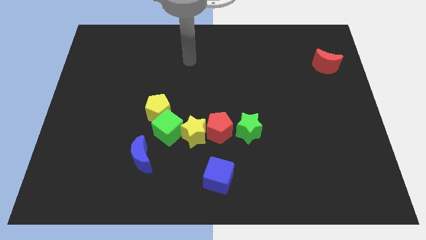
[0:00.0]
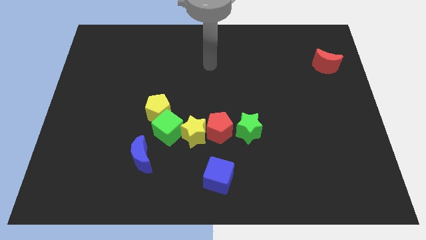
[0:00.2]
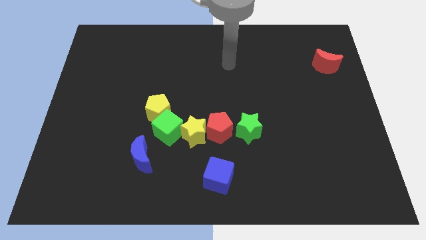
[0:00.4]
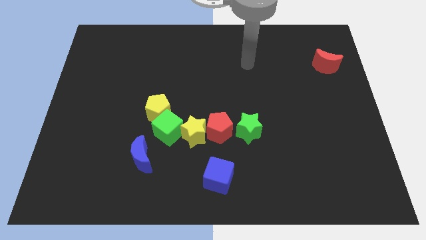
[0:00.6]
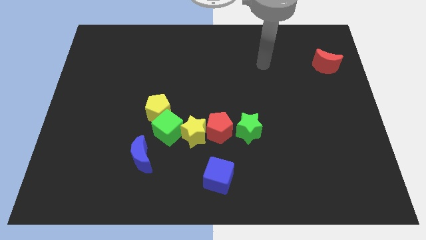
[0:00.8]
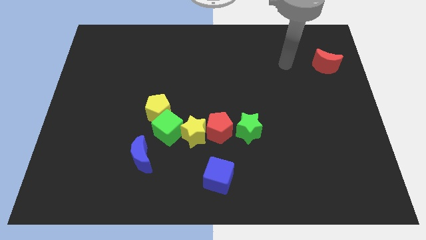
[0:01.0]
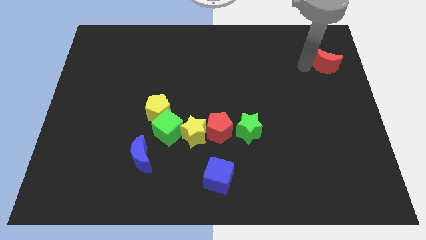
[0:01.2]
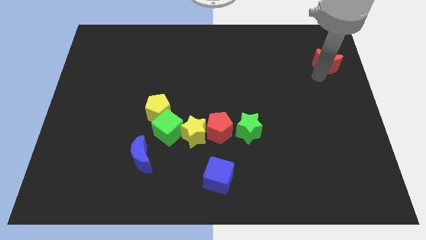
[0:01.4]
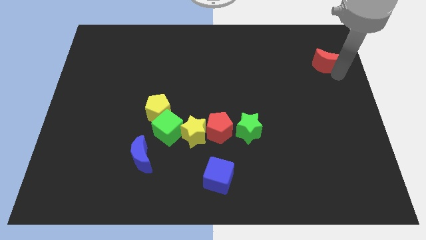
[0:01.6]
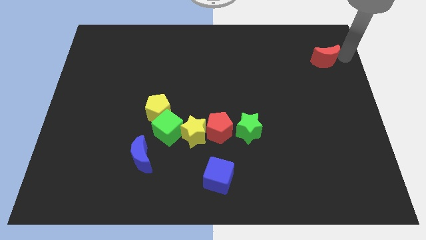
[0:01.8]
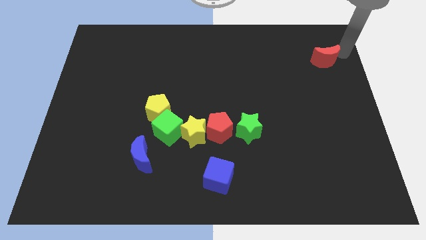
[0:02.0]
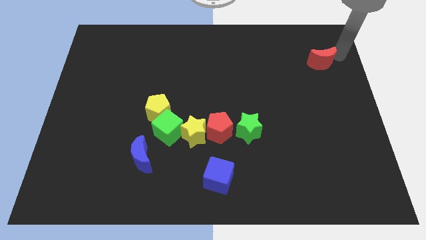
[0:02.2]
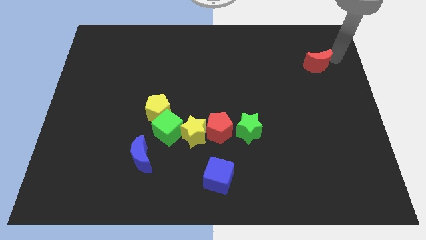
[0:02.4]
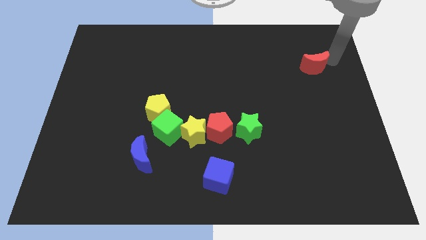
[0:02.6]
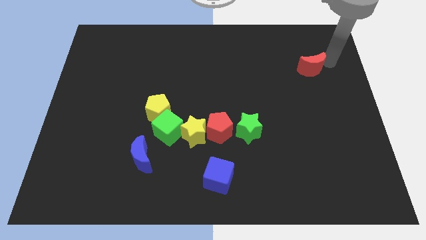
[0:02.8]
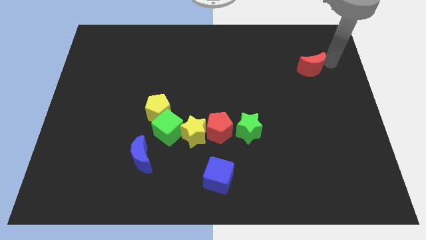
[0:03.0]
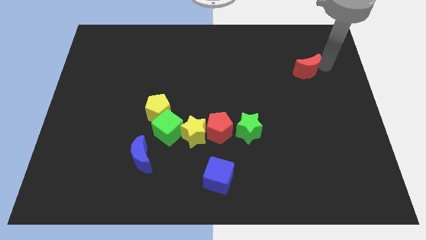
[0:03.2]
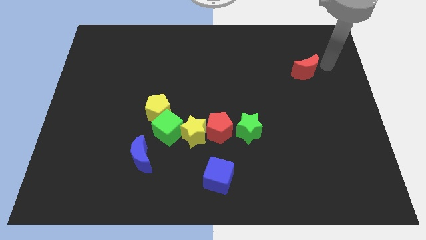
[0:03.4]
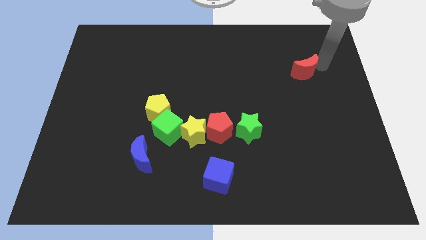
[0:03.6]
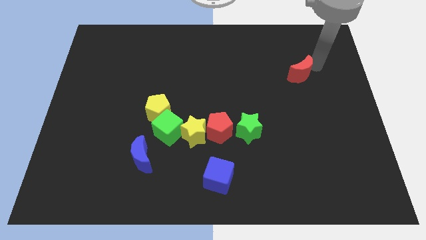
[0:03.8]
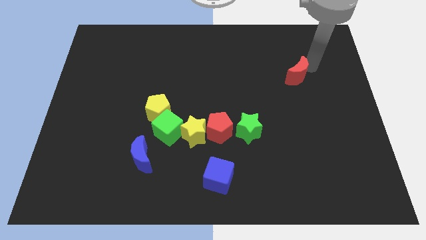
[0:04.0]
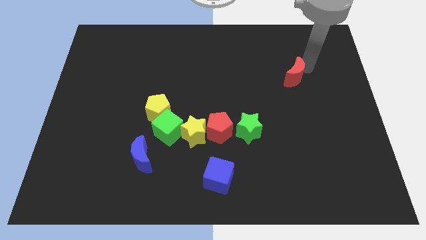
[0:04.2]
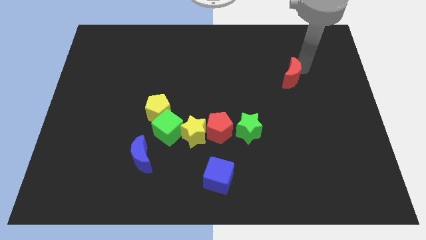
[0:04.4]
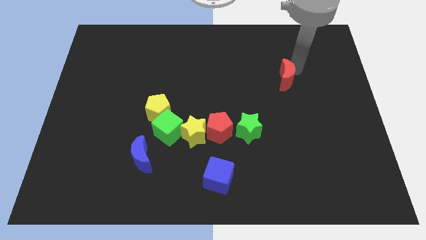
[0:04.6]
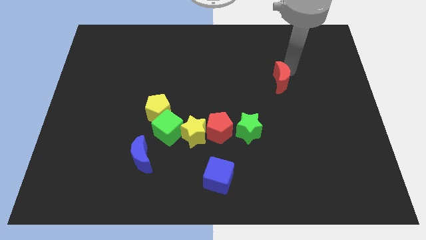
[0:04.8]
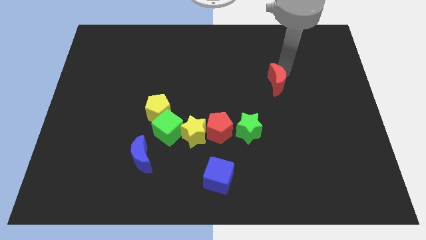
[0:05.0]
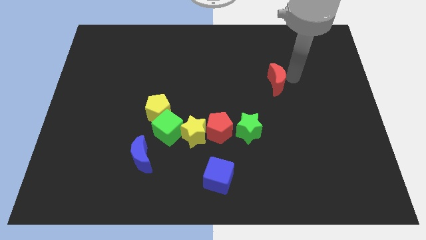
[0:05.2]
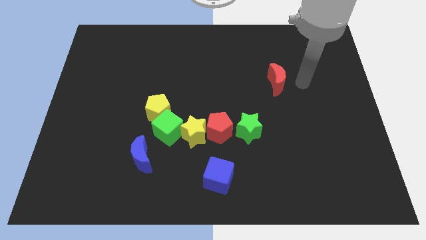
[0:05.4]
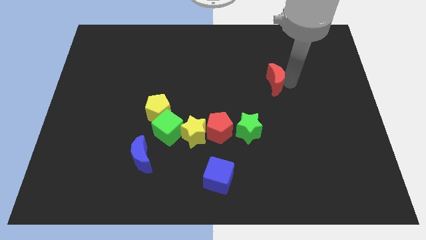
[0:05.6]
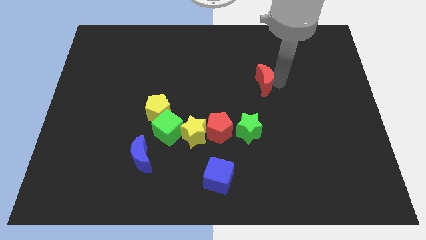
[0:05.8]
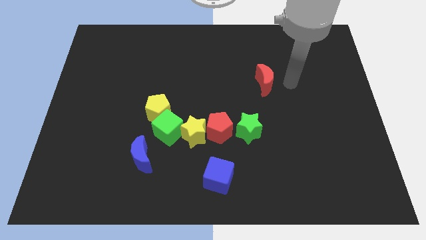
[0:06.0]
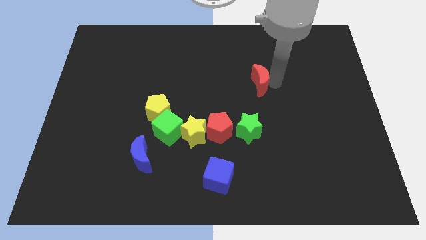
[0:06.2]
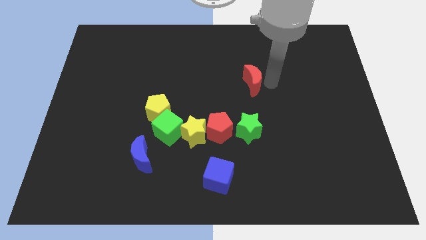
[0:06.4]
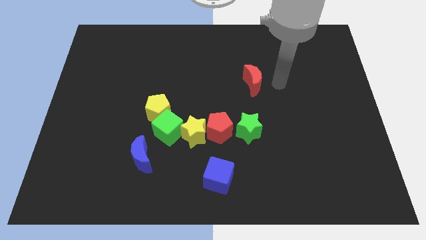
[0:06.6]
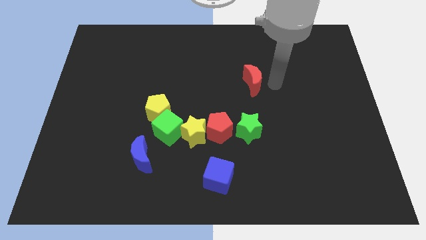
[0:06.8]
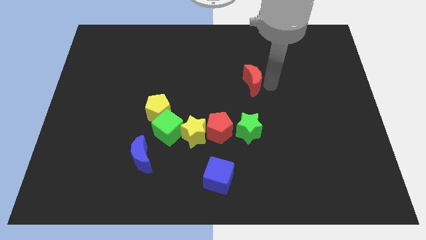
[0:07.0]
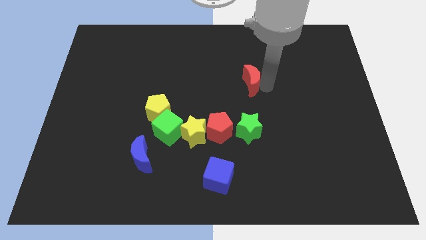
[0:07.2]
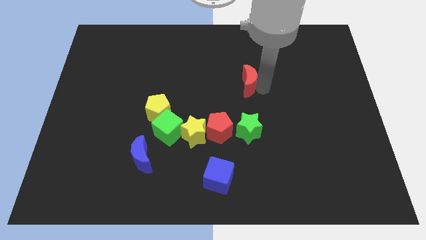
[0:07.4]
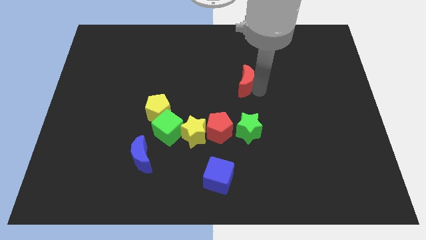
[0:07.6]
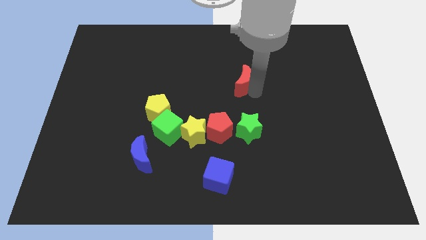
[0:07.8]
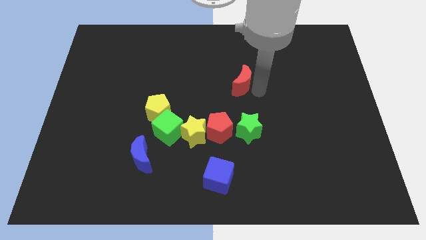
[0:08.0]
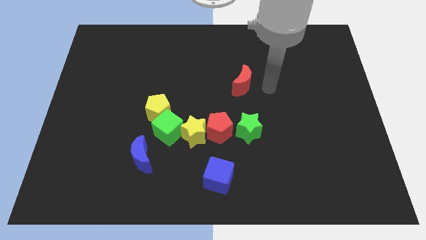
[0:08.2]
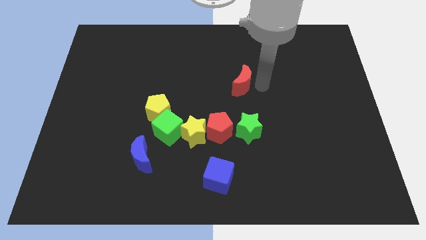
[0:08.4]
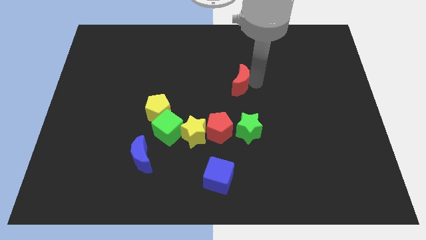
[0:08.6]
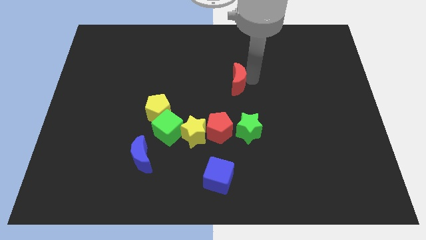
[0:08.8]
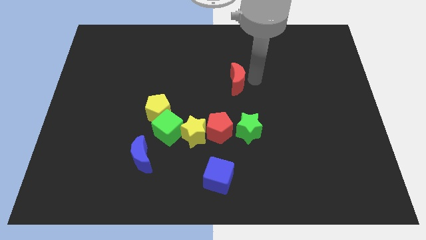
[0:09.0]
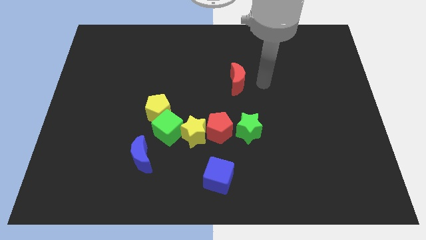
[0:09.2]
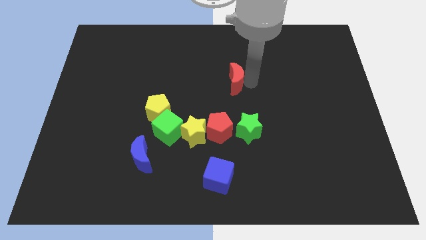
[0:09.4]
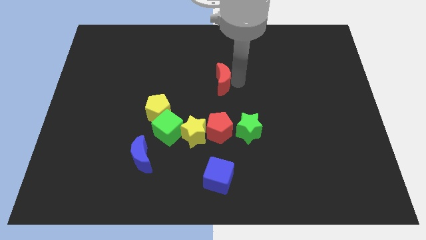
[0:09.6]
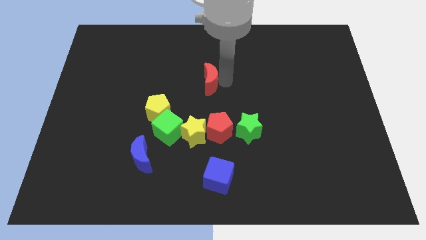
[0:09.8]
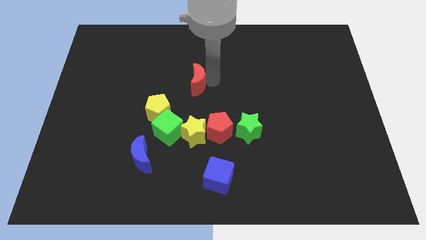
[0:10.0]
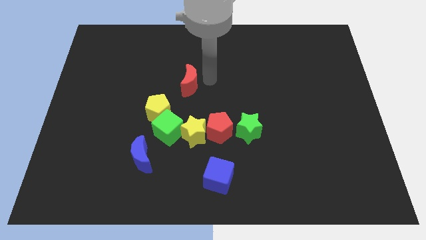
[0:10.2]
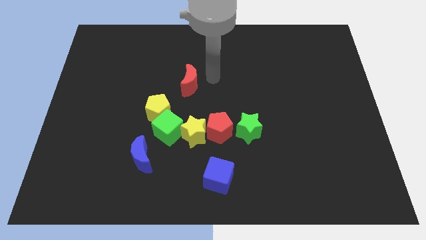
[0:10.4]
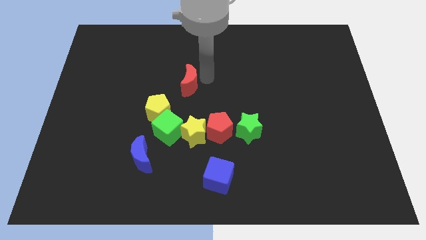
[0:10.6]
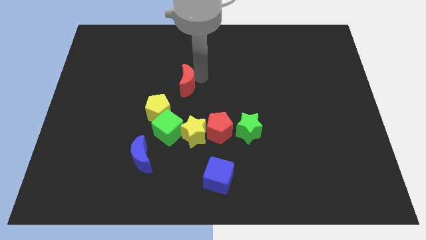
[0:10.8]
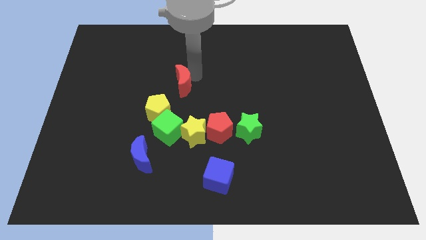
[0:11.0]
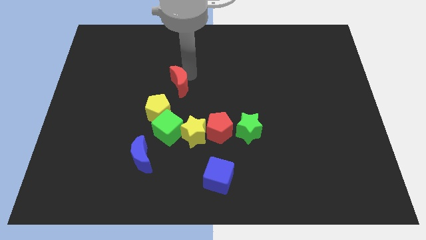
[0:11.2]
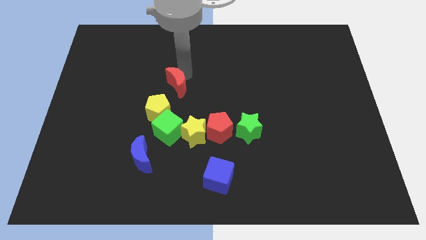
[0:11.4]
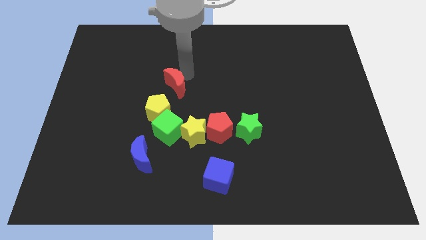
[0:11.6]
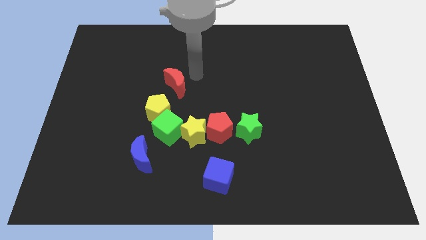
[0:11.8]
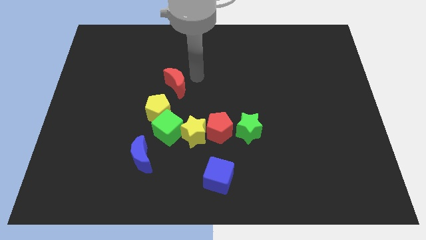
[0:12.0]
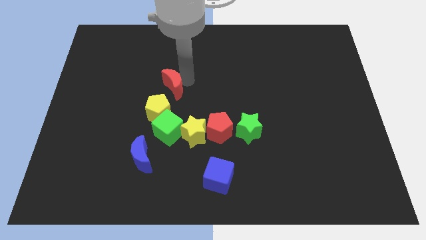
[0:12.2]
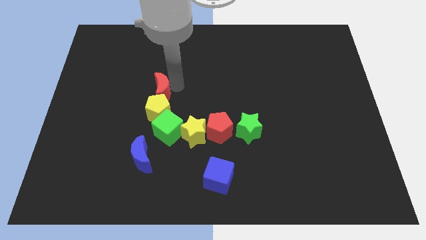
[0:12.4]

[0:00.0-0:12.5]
slide the red moon to the top left side of the yellow pentagon
